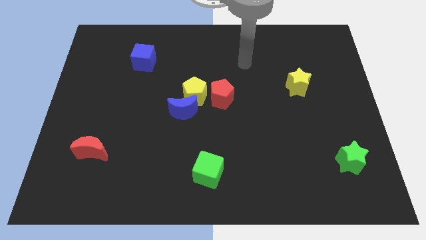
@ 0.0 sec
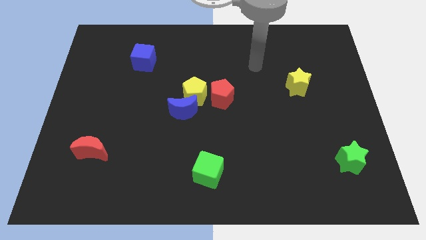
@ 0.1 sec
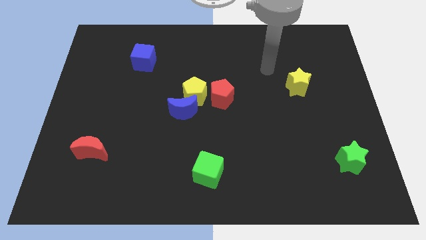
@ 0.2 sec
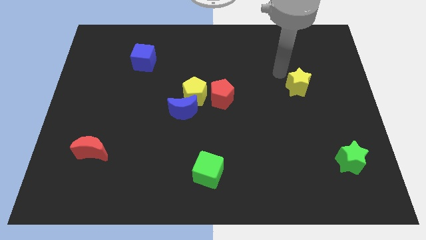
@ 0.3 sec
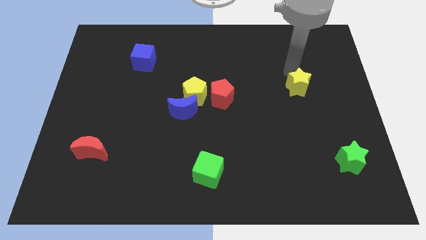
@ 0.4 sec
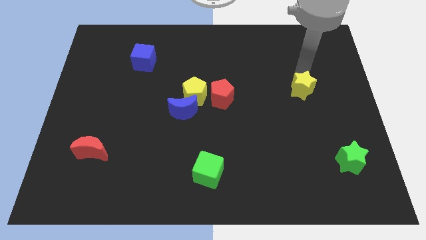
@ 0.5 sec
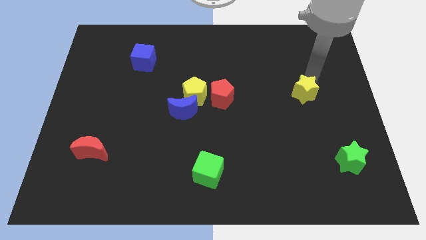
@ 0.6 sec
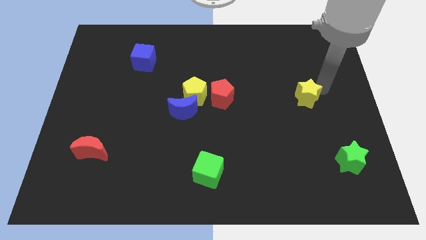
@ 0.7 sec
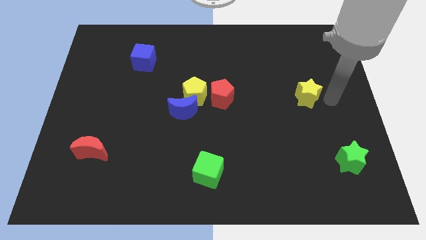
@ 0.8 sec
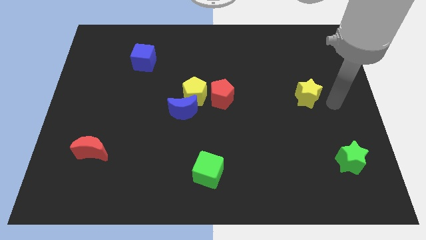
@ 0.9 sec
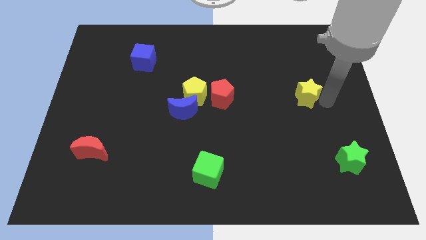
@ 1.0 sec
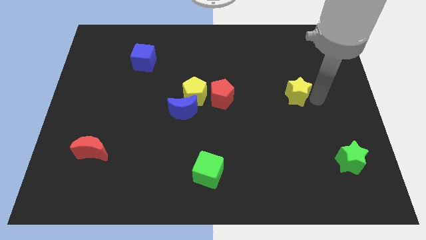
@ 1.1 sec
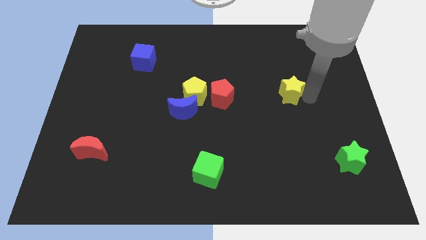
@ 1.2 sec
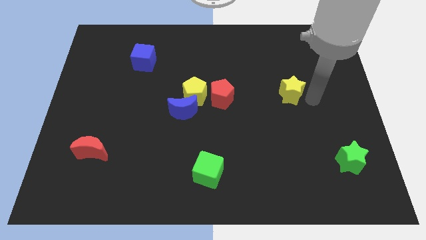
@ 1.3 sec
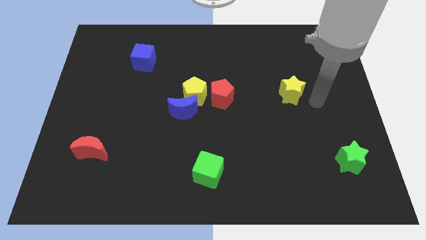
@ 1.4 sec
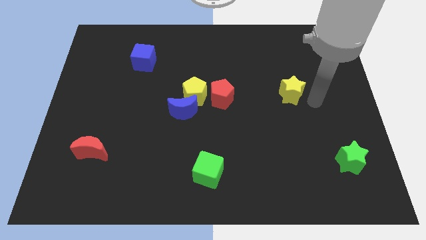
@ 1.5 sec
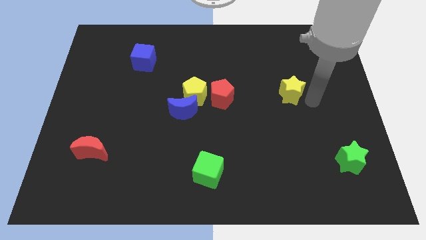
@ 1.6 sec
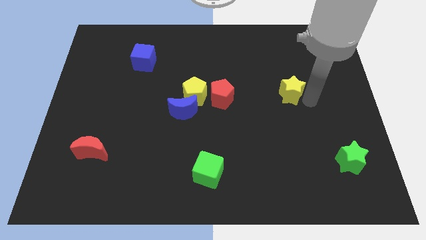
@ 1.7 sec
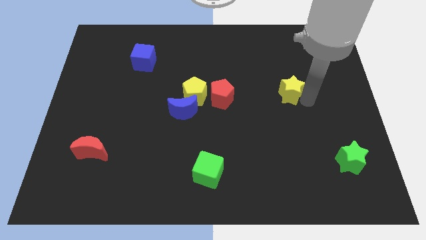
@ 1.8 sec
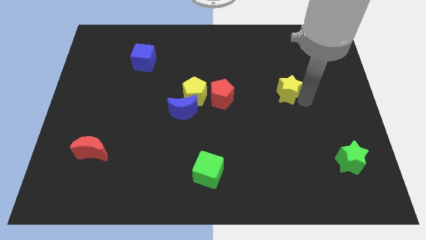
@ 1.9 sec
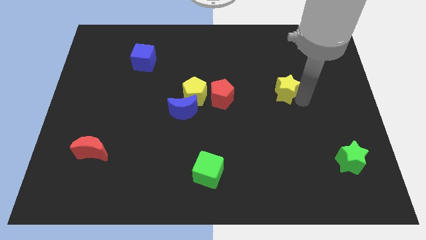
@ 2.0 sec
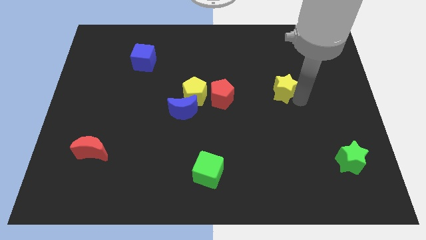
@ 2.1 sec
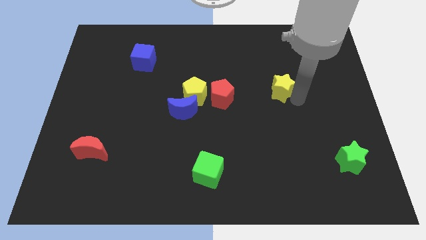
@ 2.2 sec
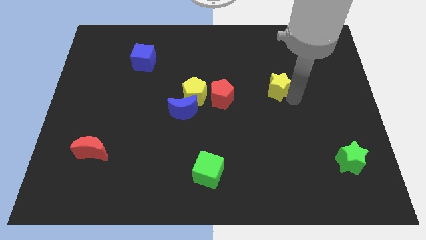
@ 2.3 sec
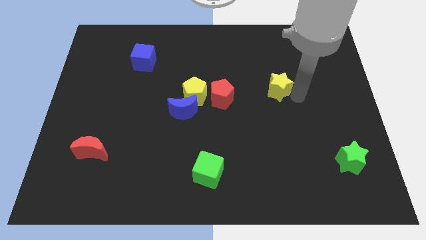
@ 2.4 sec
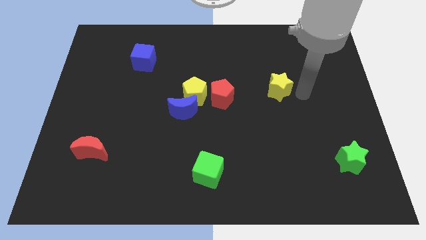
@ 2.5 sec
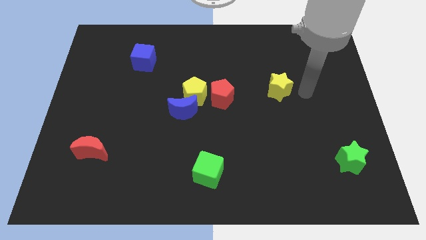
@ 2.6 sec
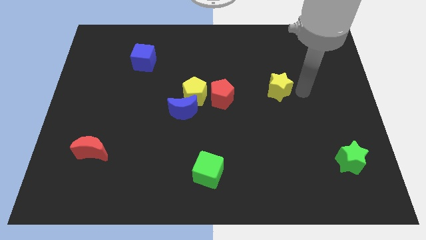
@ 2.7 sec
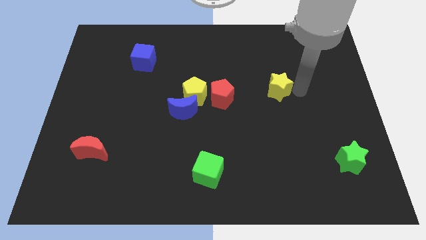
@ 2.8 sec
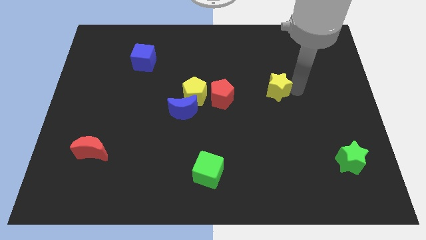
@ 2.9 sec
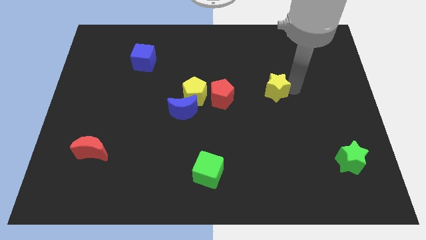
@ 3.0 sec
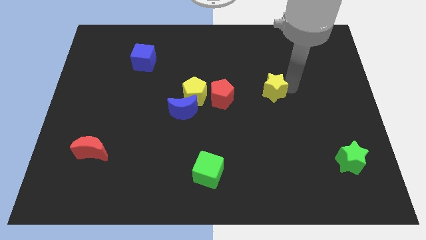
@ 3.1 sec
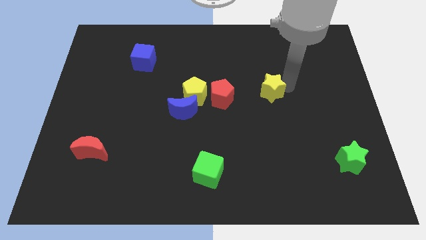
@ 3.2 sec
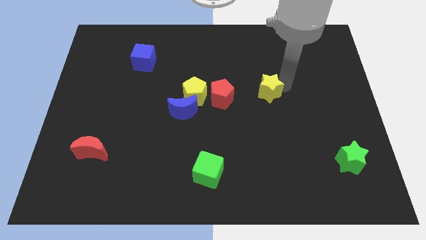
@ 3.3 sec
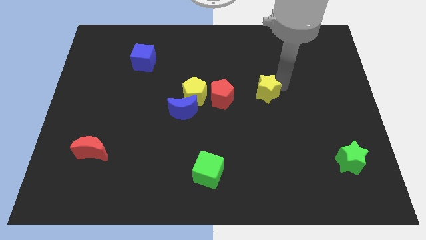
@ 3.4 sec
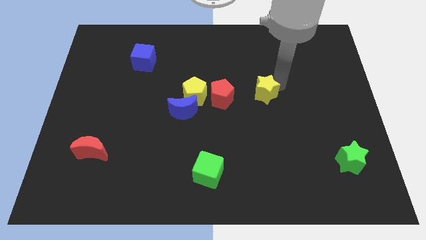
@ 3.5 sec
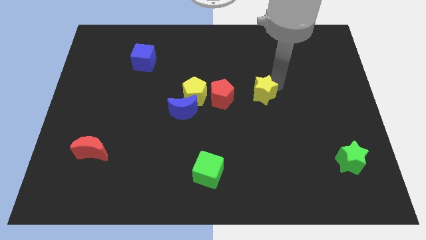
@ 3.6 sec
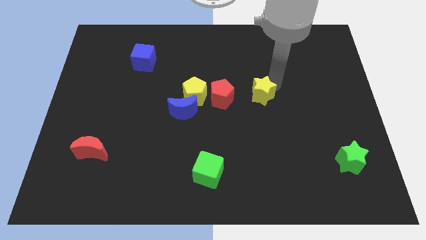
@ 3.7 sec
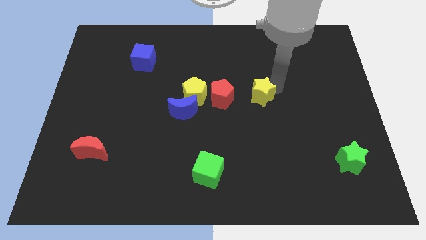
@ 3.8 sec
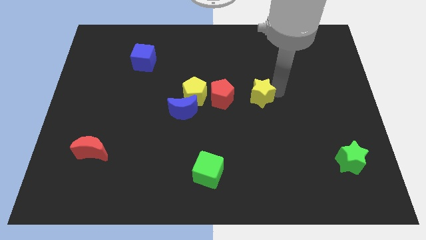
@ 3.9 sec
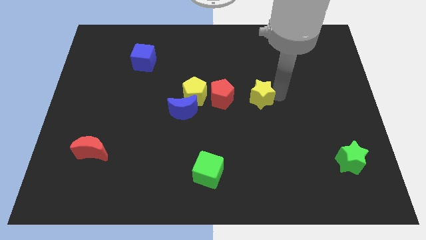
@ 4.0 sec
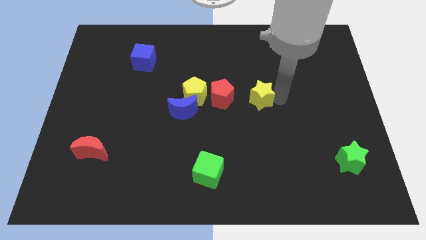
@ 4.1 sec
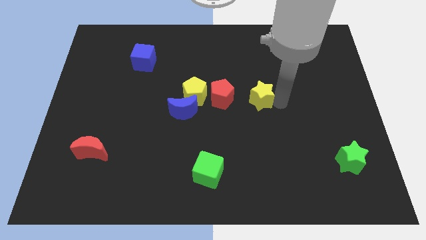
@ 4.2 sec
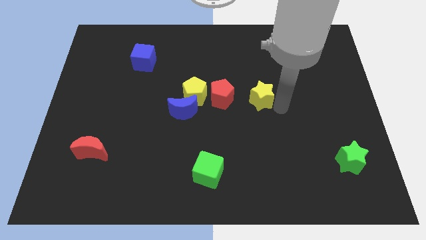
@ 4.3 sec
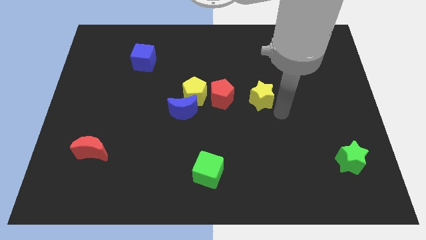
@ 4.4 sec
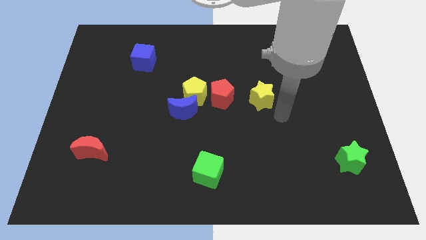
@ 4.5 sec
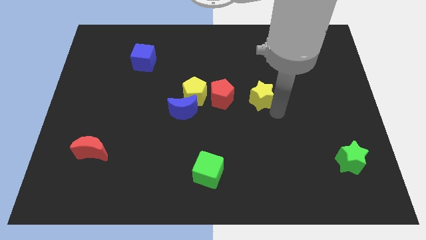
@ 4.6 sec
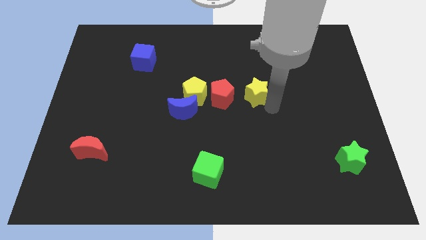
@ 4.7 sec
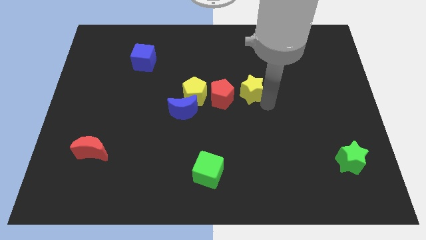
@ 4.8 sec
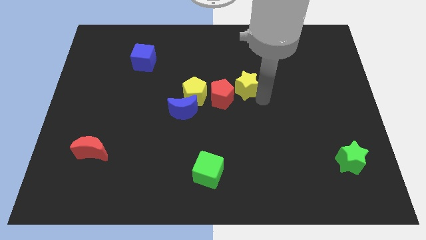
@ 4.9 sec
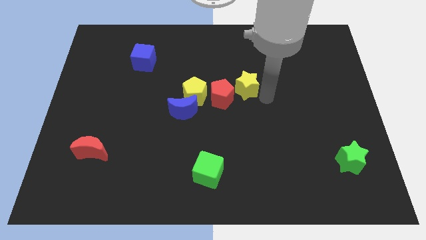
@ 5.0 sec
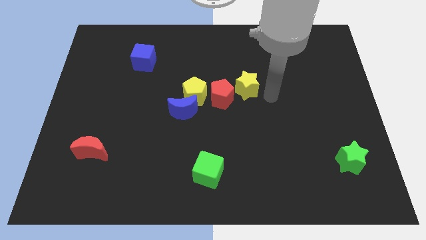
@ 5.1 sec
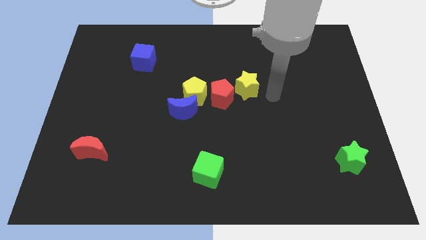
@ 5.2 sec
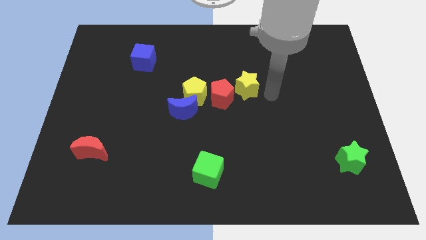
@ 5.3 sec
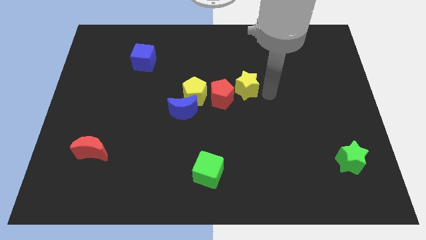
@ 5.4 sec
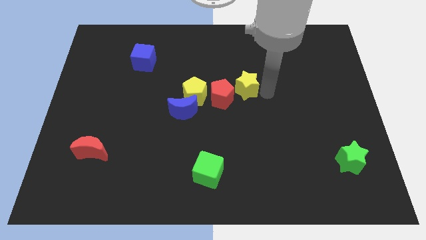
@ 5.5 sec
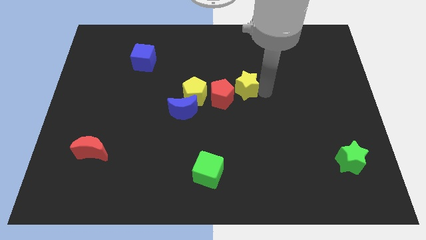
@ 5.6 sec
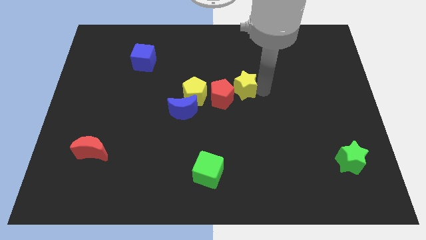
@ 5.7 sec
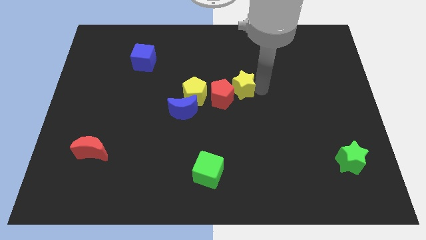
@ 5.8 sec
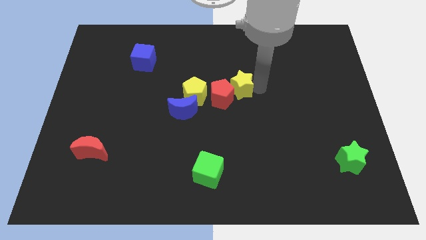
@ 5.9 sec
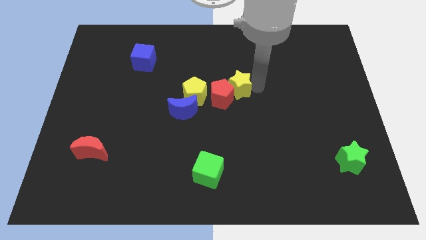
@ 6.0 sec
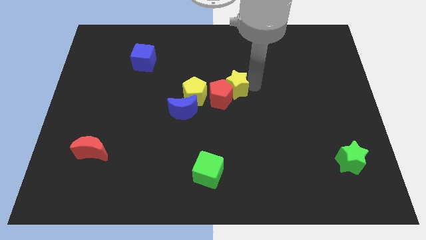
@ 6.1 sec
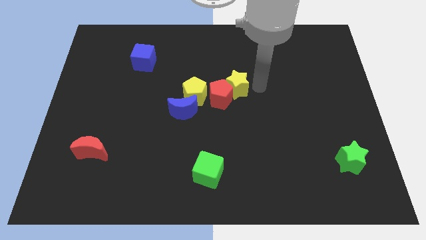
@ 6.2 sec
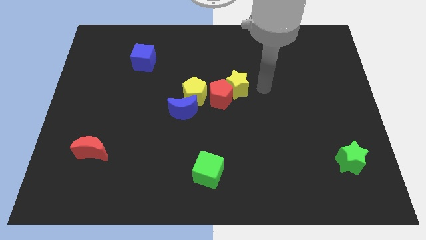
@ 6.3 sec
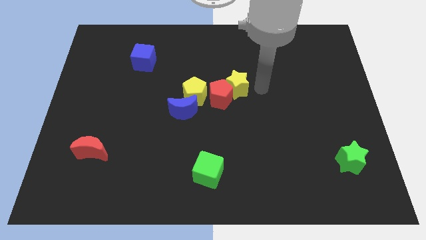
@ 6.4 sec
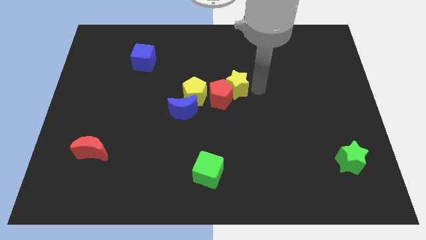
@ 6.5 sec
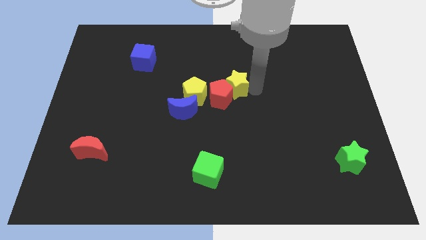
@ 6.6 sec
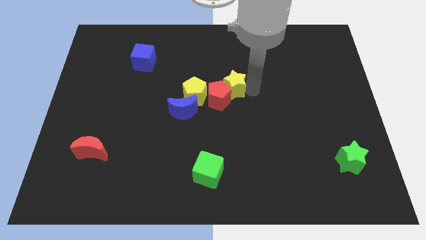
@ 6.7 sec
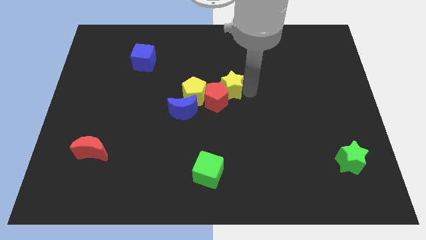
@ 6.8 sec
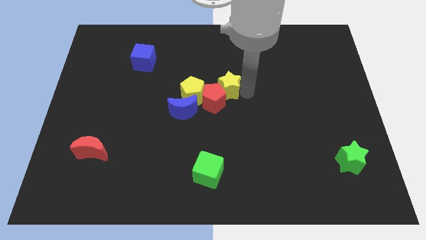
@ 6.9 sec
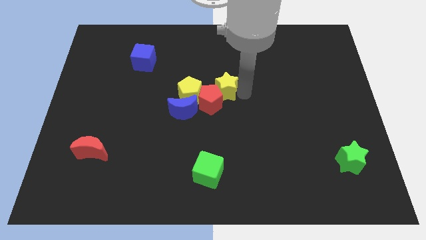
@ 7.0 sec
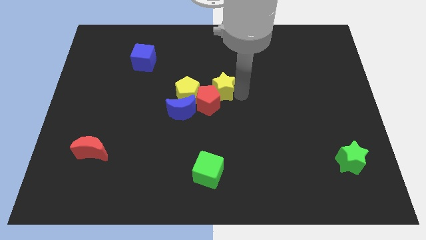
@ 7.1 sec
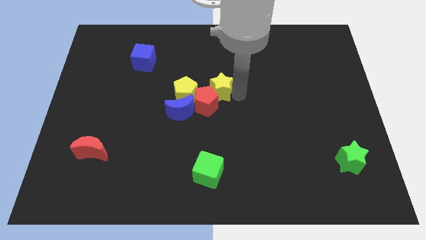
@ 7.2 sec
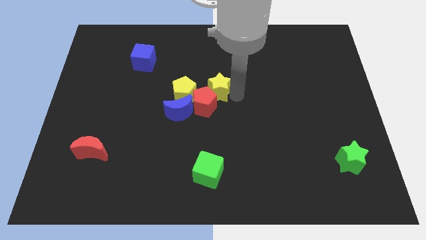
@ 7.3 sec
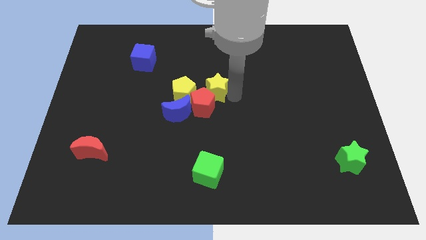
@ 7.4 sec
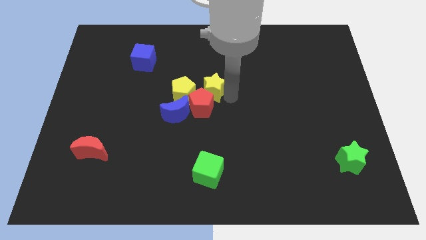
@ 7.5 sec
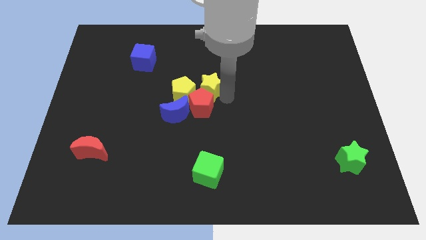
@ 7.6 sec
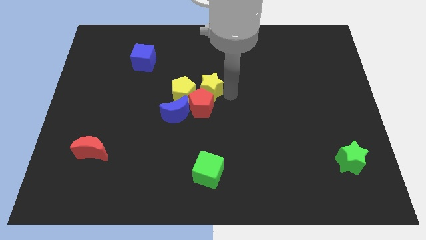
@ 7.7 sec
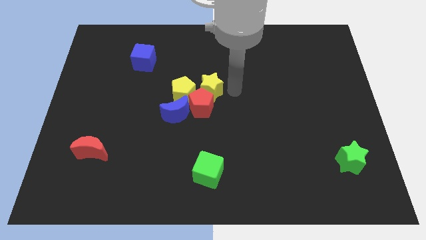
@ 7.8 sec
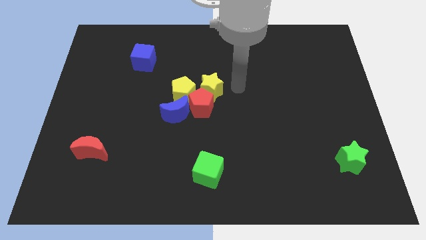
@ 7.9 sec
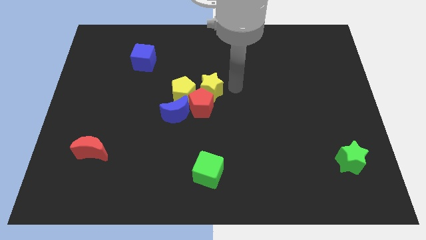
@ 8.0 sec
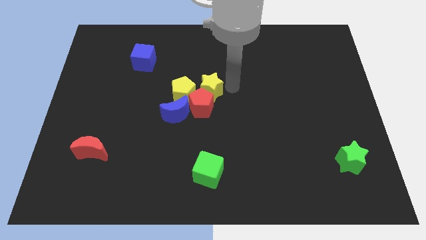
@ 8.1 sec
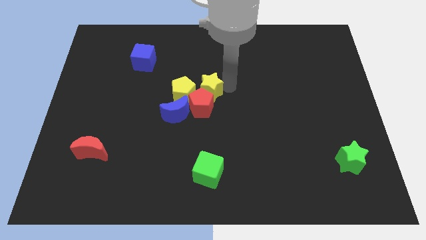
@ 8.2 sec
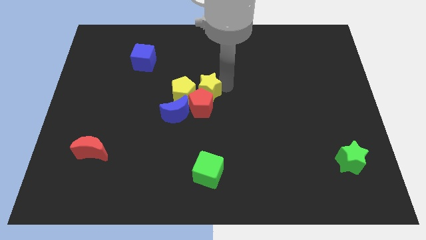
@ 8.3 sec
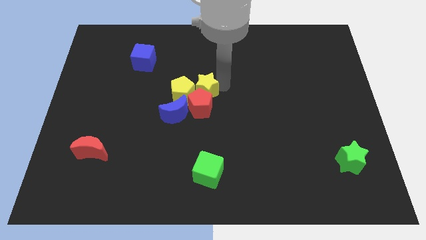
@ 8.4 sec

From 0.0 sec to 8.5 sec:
push the yellow star close to the yellow pentagon
